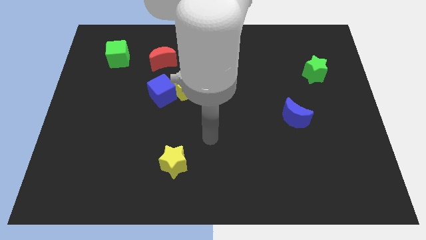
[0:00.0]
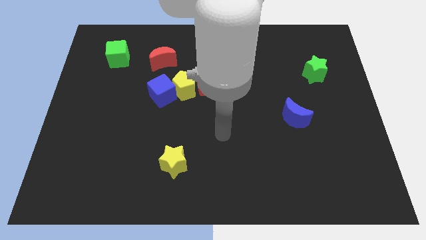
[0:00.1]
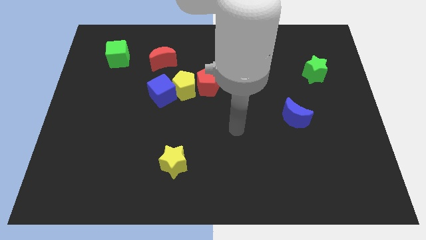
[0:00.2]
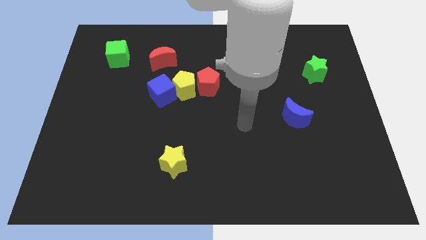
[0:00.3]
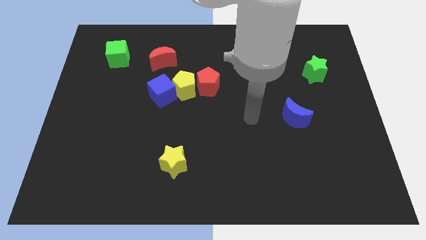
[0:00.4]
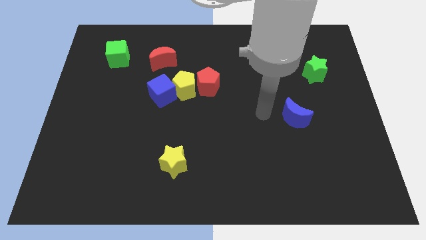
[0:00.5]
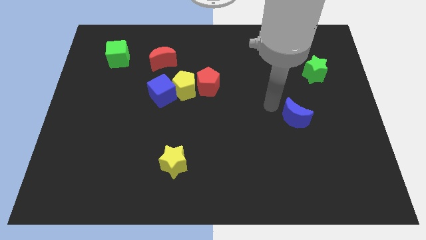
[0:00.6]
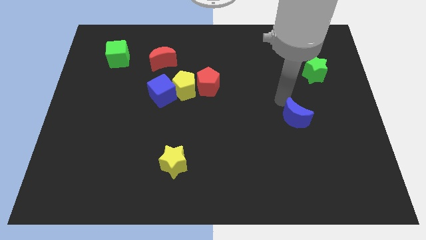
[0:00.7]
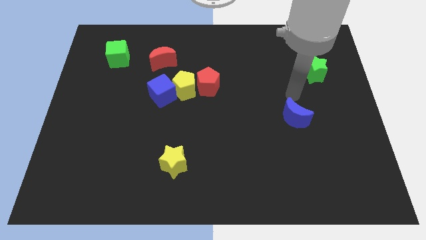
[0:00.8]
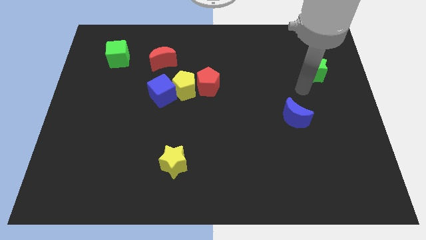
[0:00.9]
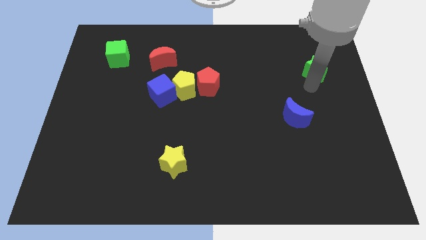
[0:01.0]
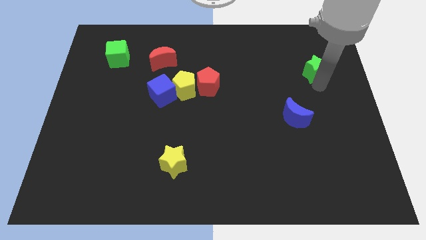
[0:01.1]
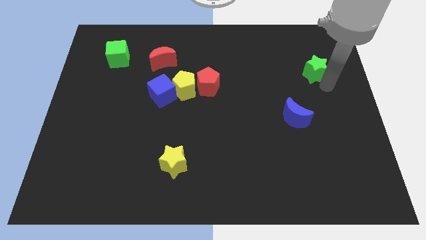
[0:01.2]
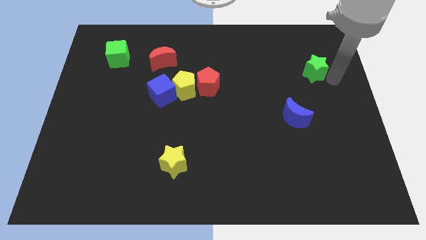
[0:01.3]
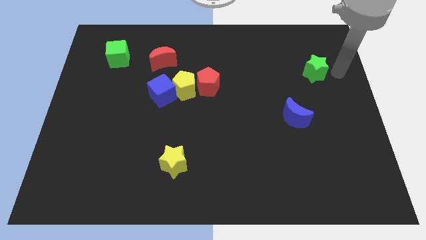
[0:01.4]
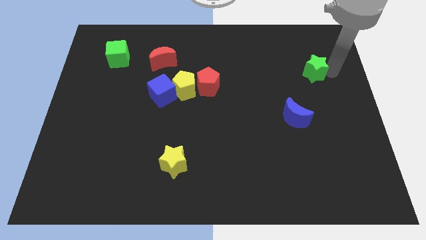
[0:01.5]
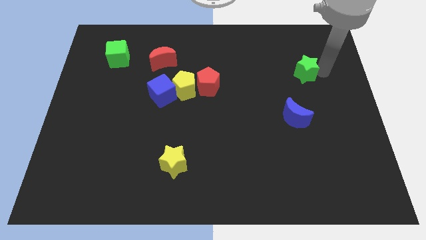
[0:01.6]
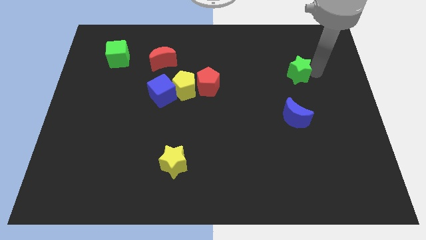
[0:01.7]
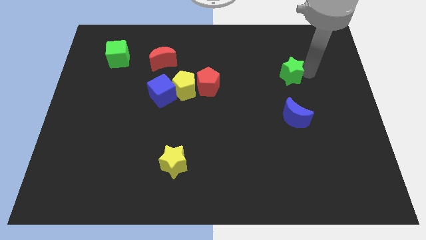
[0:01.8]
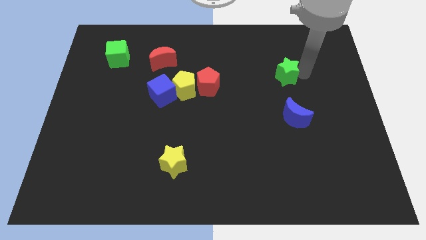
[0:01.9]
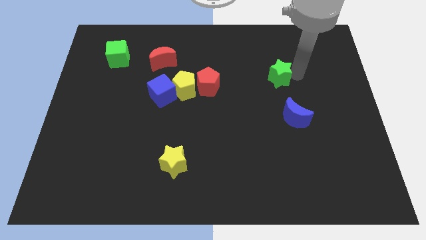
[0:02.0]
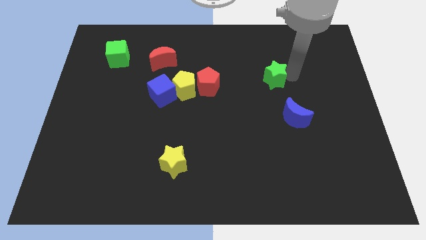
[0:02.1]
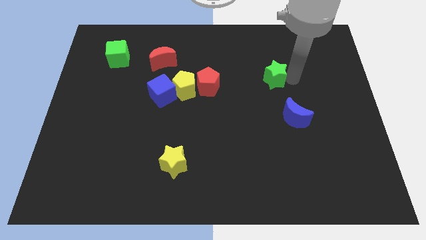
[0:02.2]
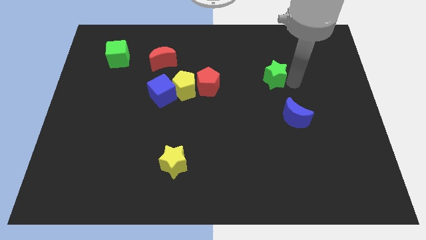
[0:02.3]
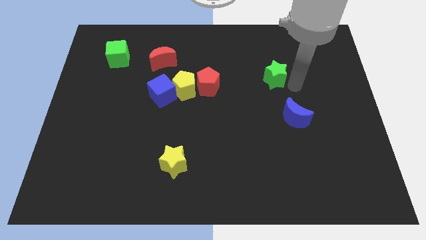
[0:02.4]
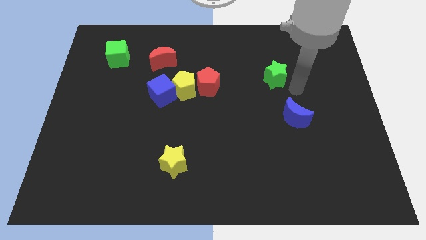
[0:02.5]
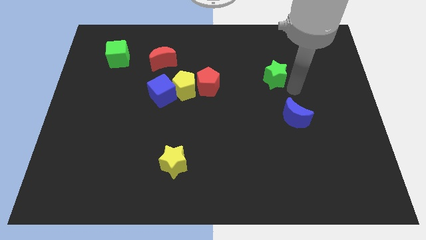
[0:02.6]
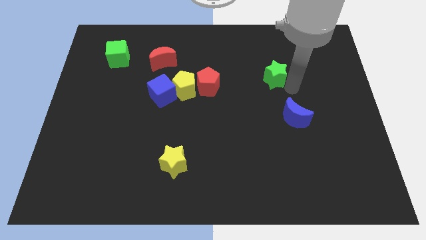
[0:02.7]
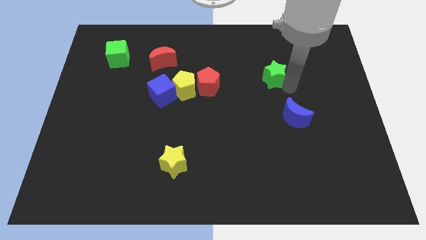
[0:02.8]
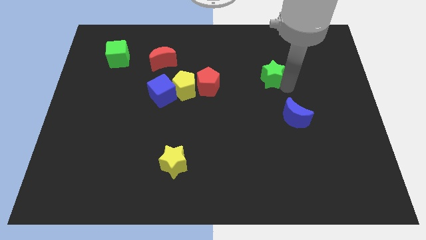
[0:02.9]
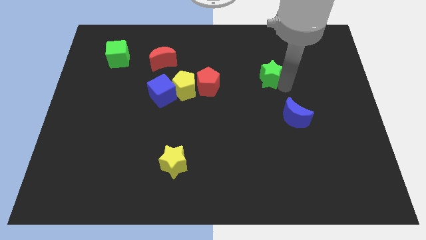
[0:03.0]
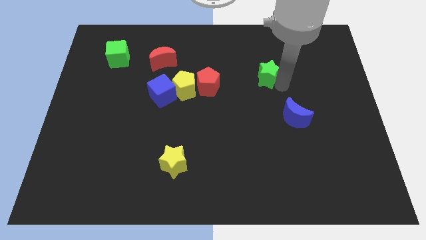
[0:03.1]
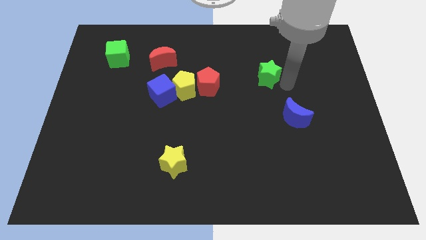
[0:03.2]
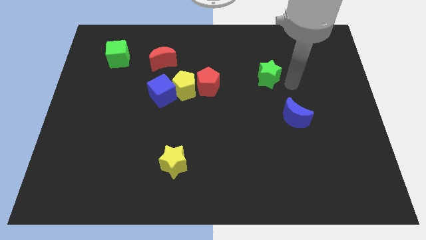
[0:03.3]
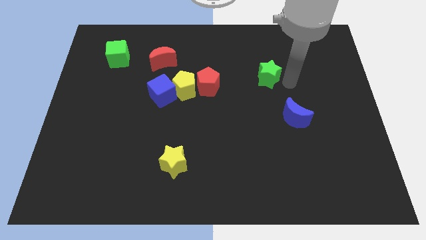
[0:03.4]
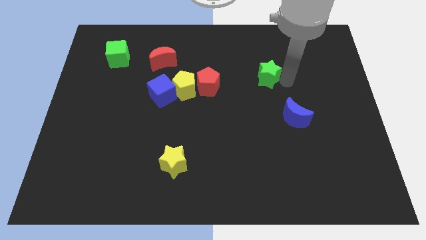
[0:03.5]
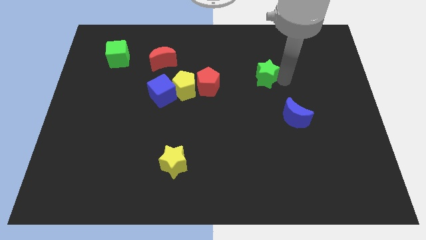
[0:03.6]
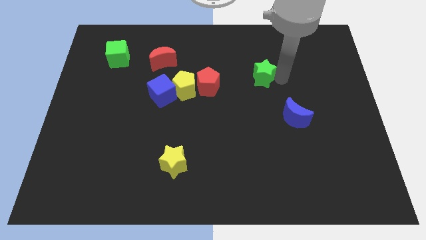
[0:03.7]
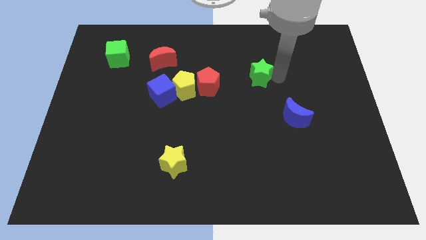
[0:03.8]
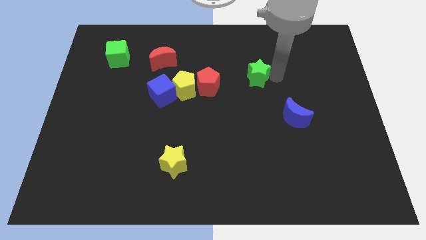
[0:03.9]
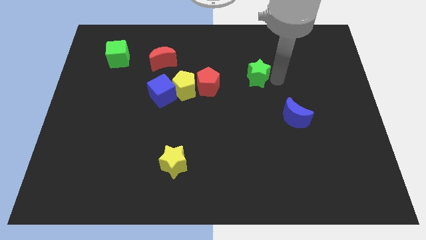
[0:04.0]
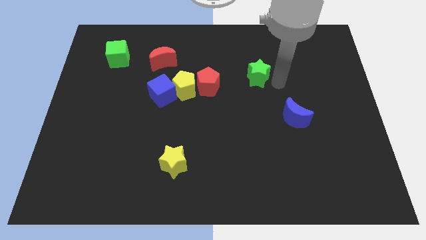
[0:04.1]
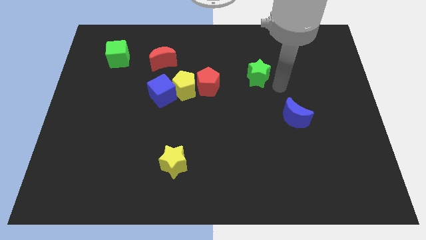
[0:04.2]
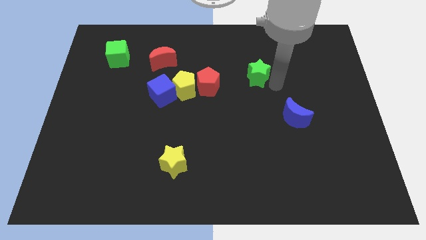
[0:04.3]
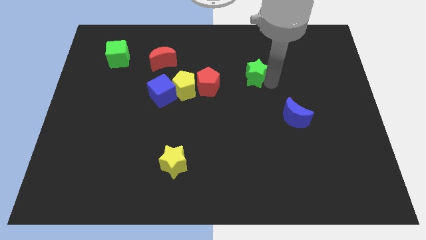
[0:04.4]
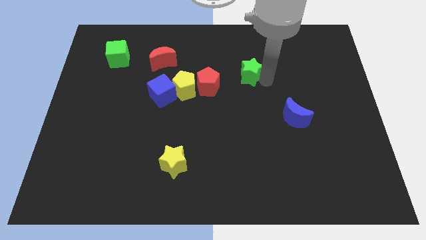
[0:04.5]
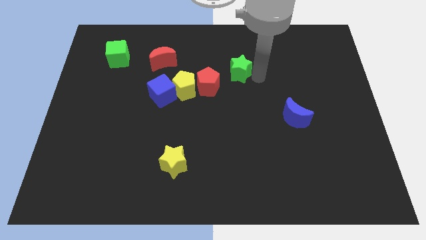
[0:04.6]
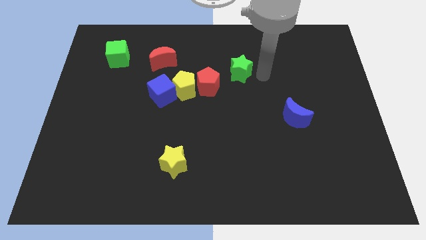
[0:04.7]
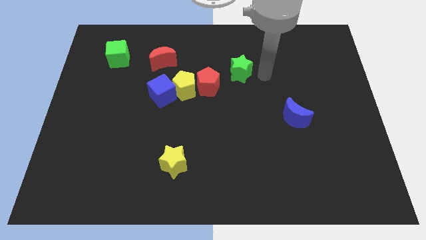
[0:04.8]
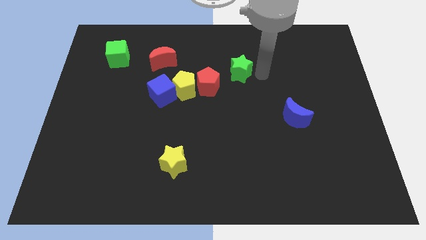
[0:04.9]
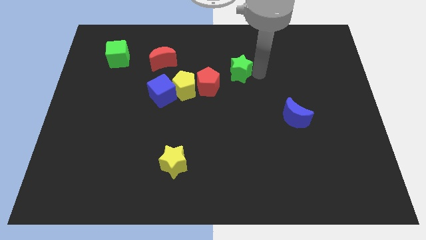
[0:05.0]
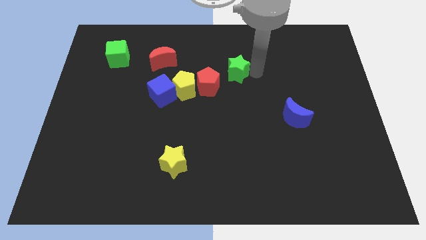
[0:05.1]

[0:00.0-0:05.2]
slide the green star to the left

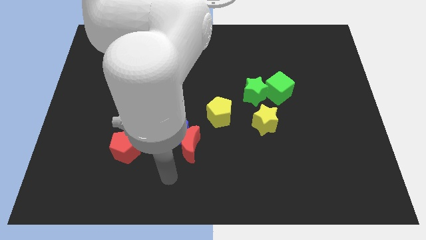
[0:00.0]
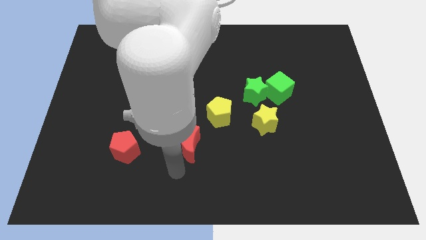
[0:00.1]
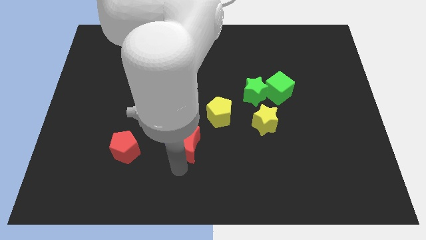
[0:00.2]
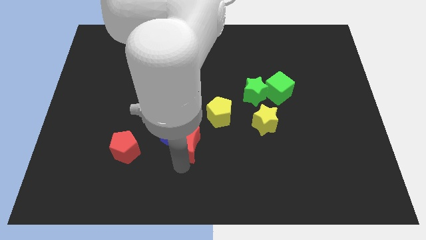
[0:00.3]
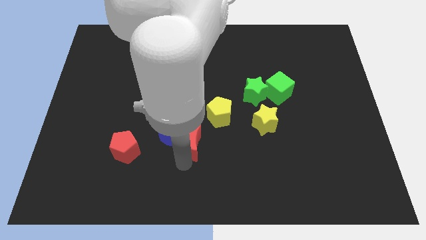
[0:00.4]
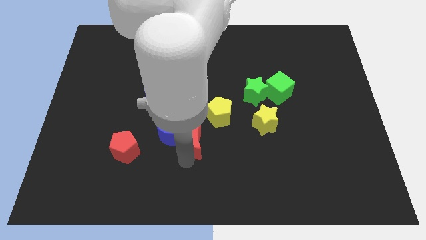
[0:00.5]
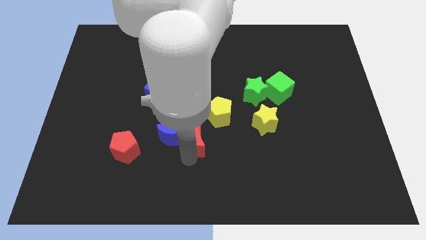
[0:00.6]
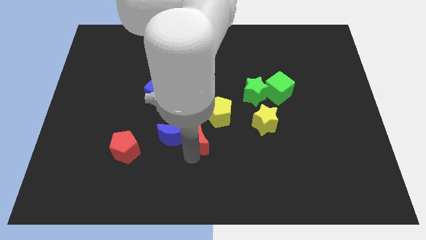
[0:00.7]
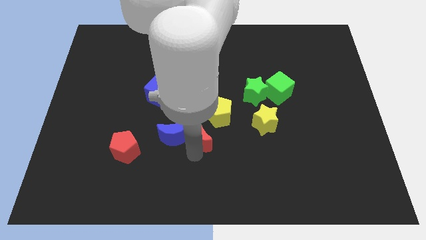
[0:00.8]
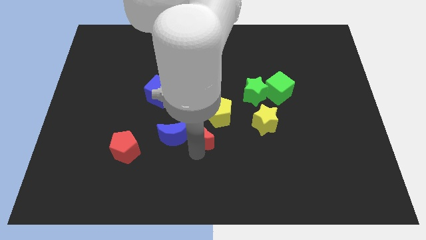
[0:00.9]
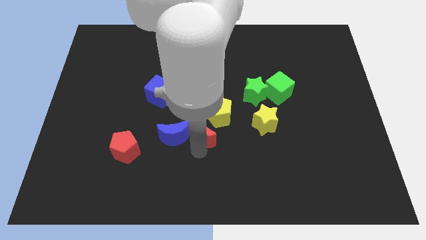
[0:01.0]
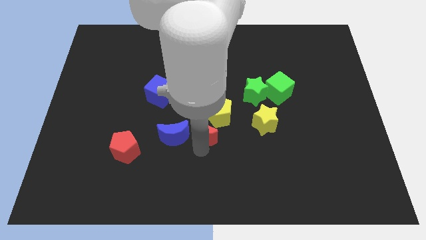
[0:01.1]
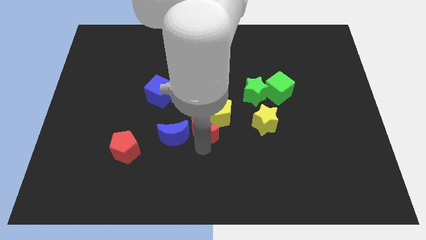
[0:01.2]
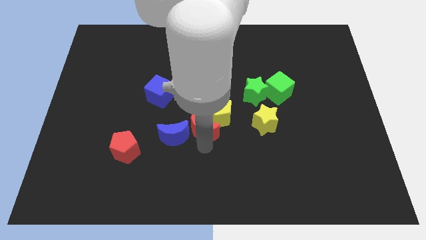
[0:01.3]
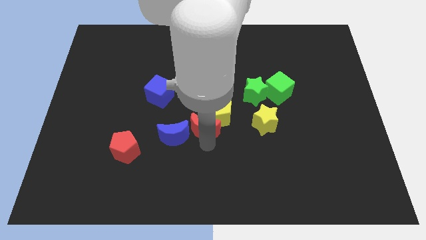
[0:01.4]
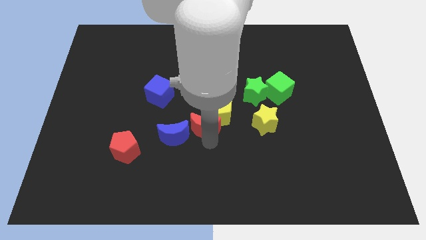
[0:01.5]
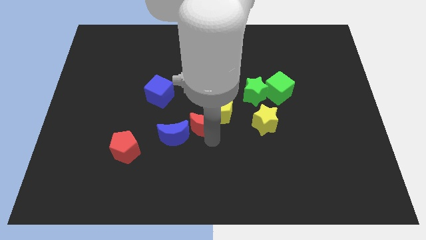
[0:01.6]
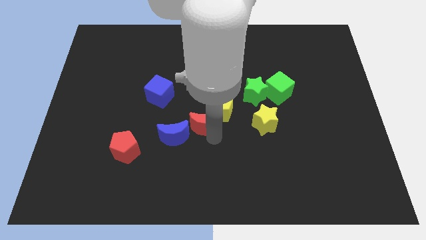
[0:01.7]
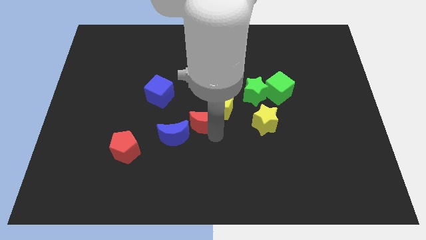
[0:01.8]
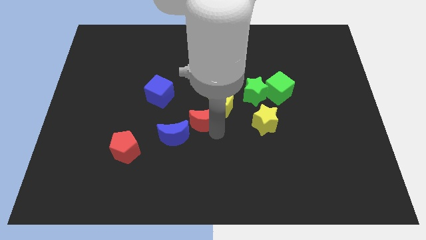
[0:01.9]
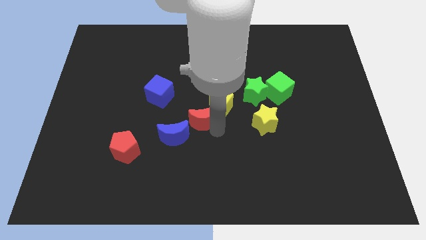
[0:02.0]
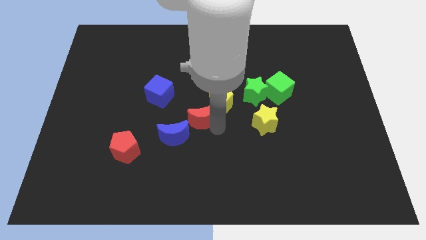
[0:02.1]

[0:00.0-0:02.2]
slide the red moon upwards somewhat

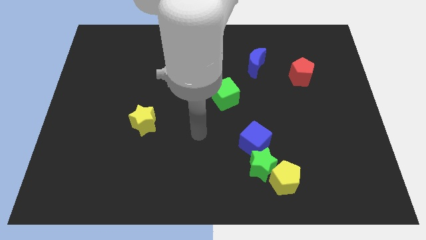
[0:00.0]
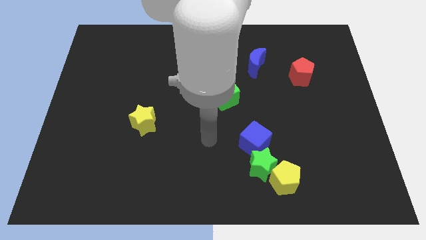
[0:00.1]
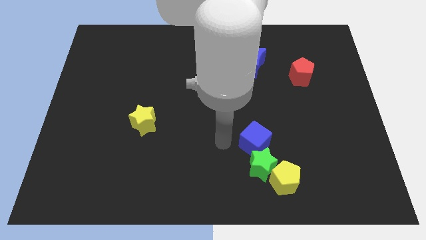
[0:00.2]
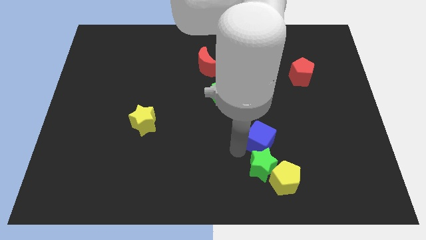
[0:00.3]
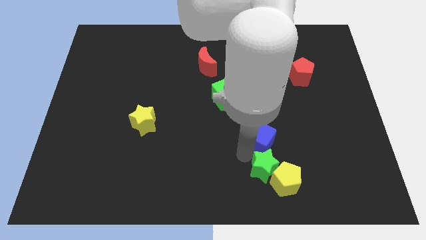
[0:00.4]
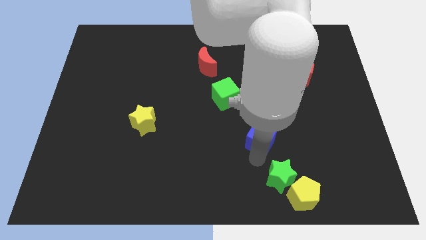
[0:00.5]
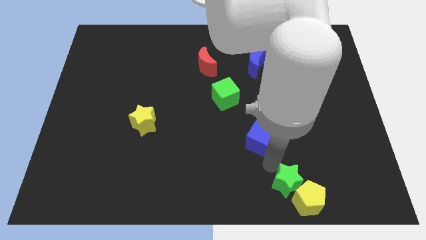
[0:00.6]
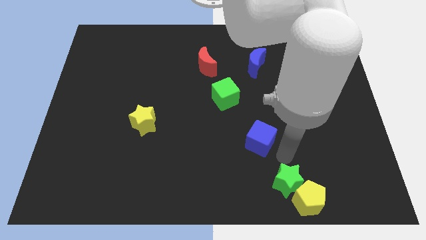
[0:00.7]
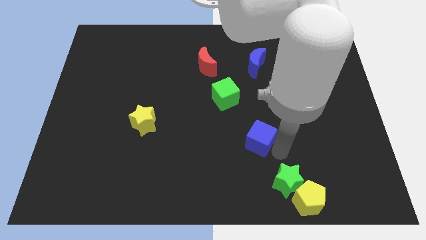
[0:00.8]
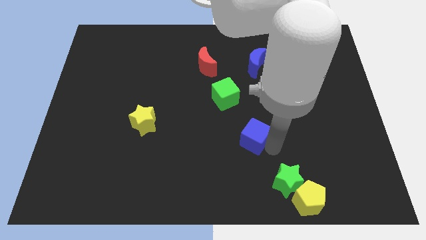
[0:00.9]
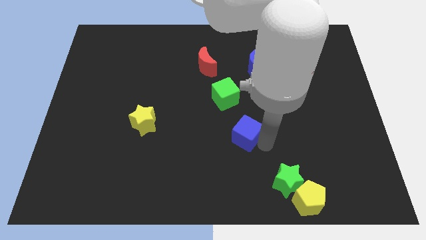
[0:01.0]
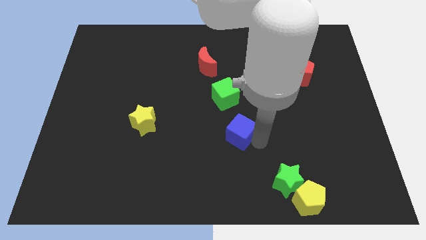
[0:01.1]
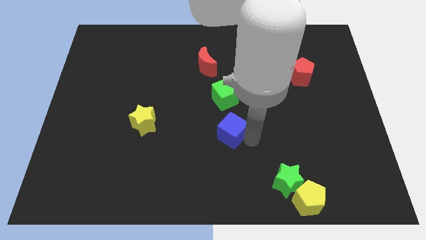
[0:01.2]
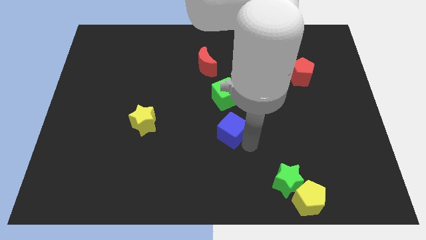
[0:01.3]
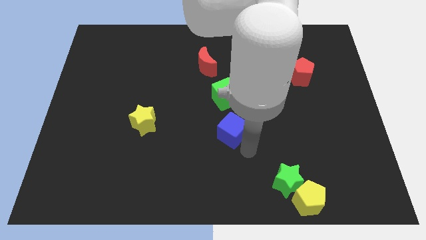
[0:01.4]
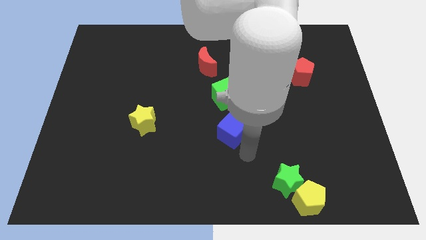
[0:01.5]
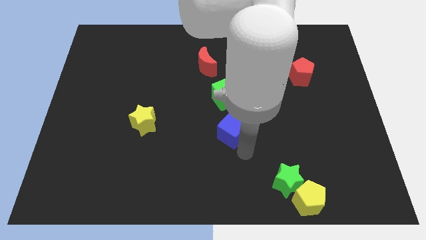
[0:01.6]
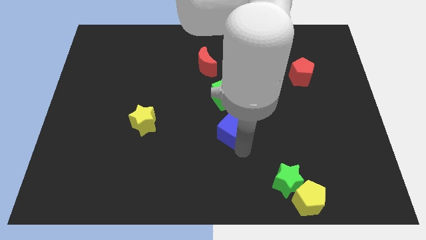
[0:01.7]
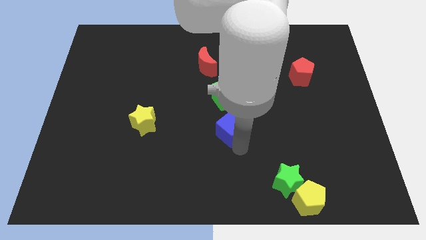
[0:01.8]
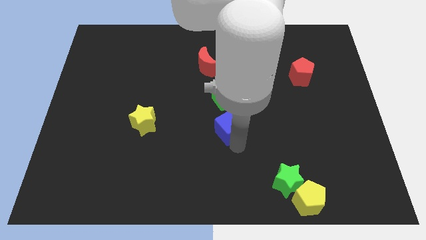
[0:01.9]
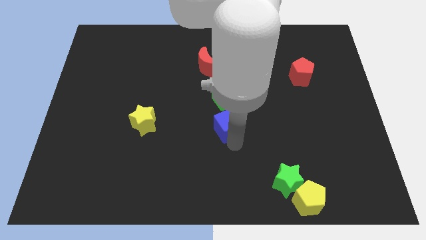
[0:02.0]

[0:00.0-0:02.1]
push the blue cube up and to the left diagonally somewhat
